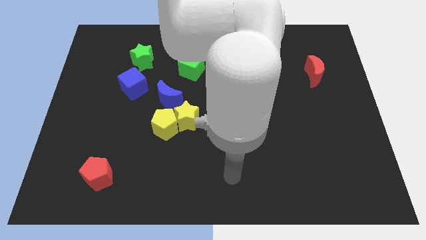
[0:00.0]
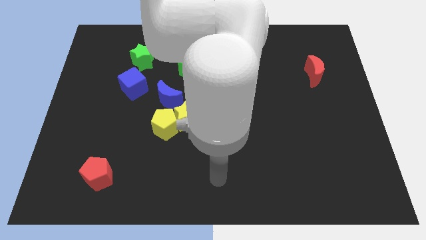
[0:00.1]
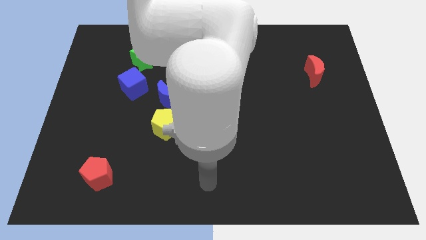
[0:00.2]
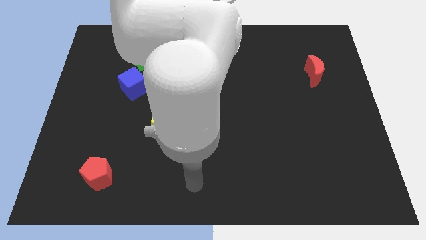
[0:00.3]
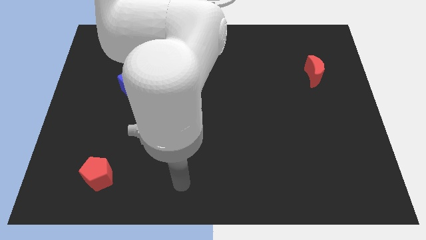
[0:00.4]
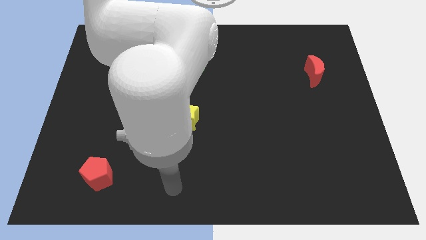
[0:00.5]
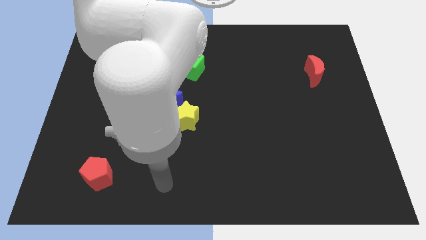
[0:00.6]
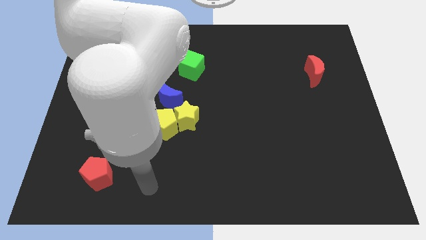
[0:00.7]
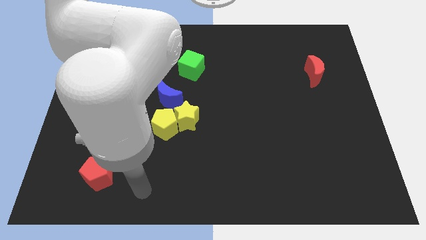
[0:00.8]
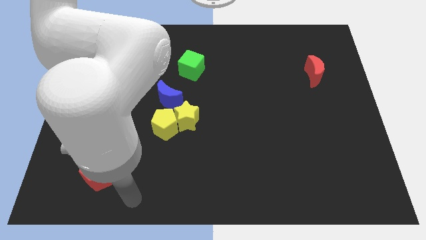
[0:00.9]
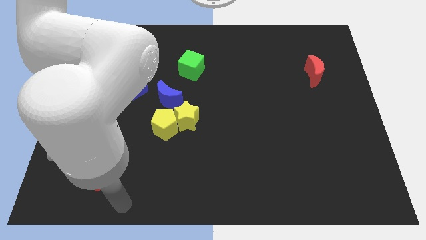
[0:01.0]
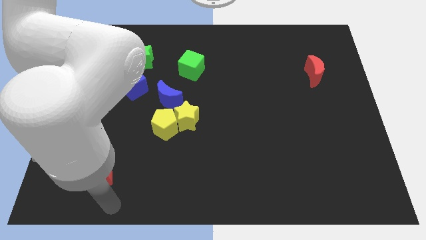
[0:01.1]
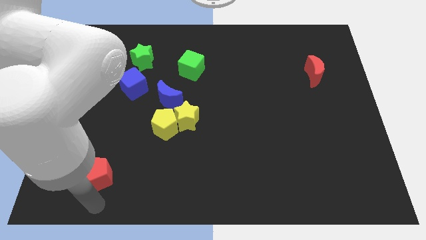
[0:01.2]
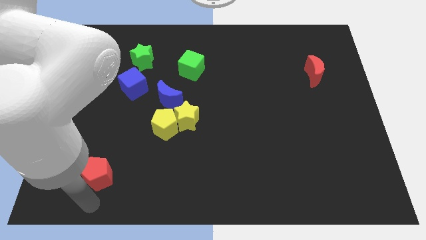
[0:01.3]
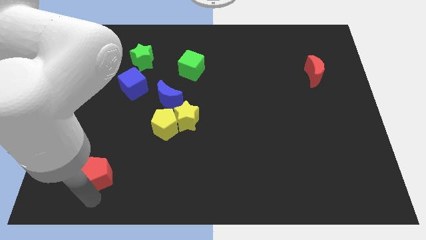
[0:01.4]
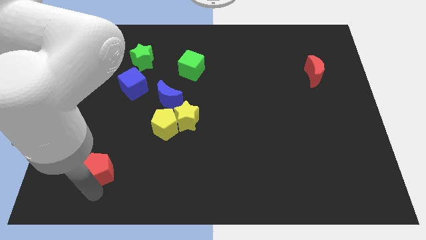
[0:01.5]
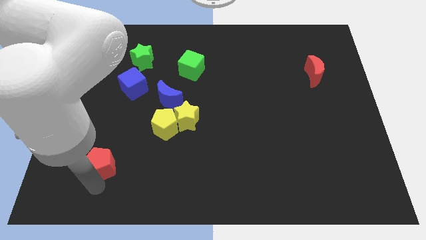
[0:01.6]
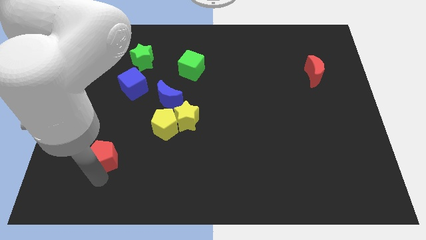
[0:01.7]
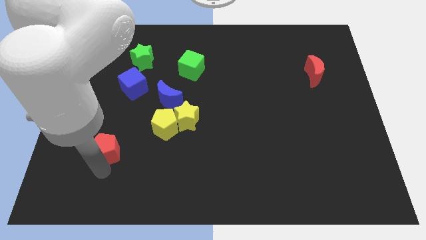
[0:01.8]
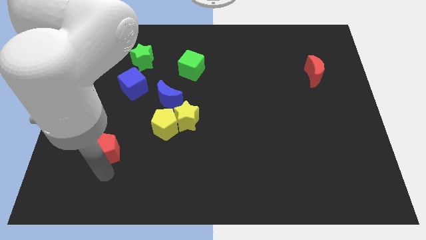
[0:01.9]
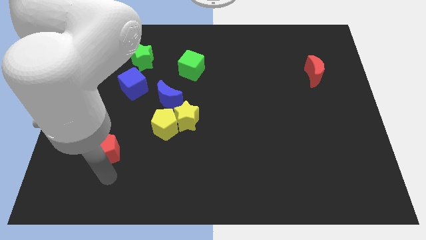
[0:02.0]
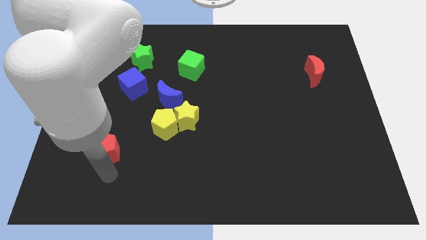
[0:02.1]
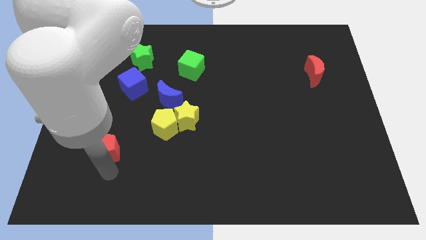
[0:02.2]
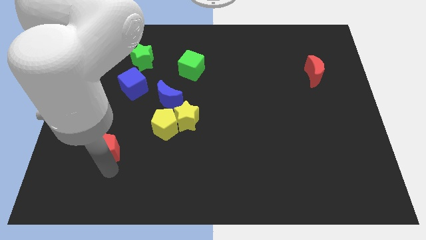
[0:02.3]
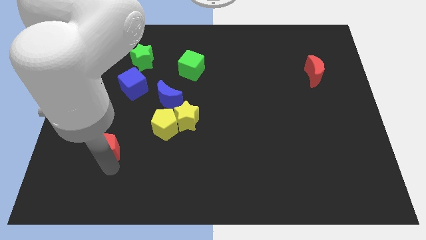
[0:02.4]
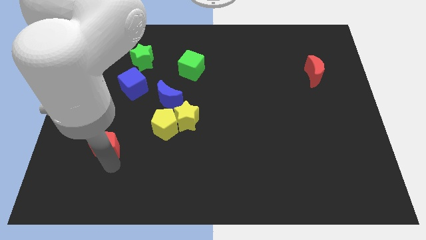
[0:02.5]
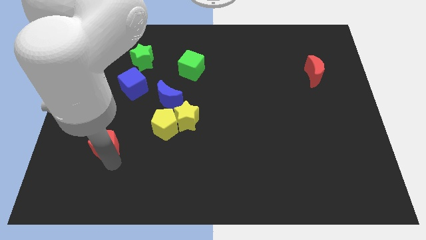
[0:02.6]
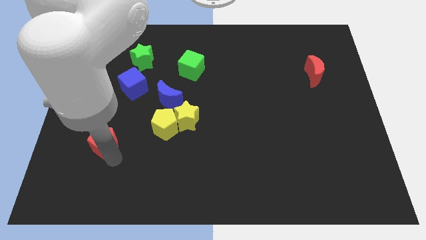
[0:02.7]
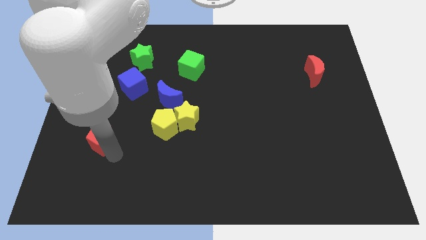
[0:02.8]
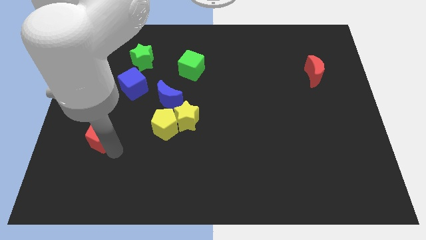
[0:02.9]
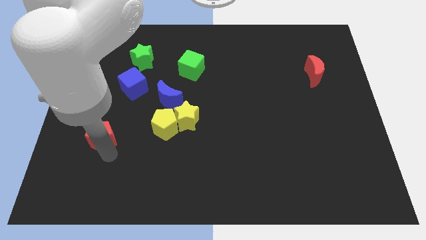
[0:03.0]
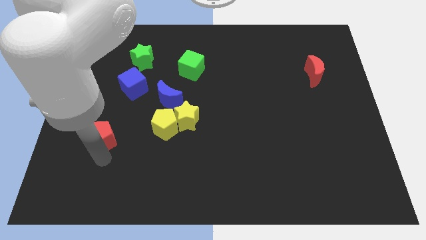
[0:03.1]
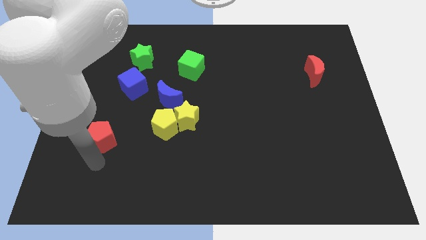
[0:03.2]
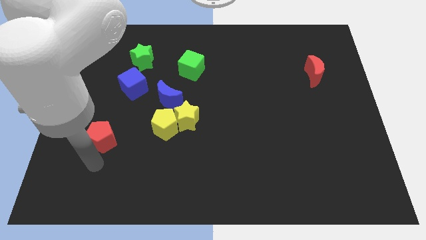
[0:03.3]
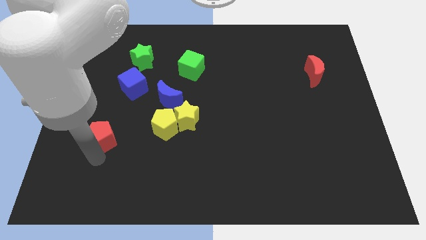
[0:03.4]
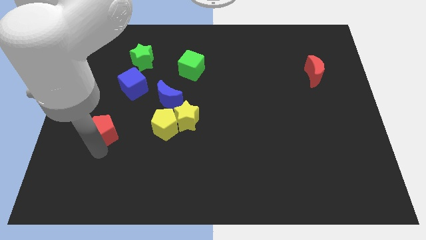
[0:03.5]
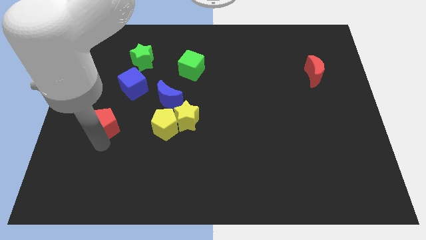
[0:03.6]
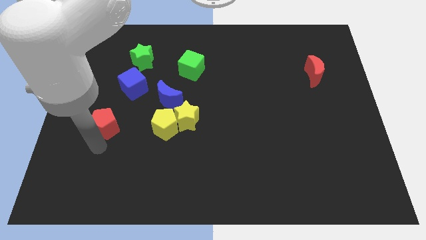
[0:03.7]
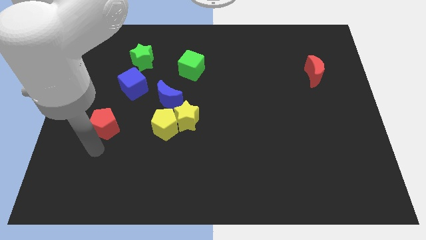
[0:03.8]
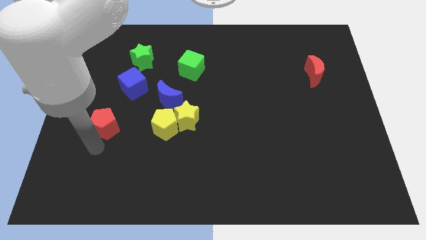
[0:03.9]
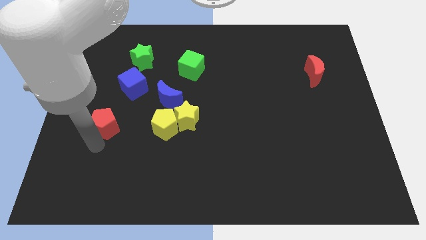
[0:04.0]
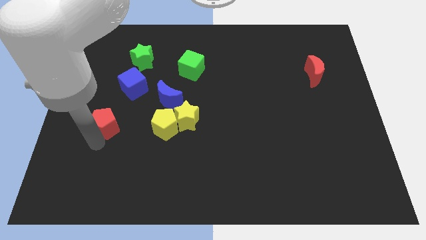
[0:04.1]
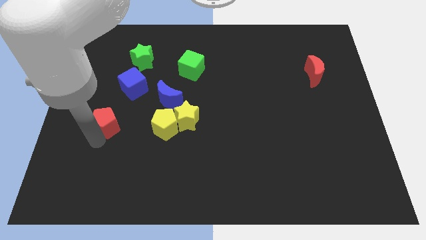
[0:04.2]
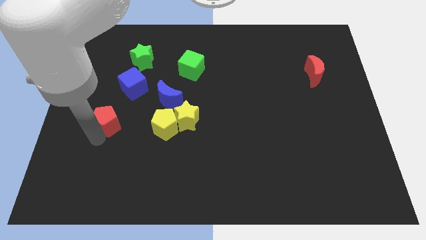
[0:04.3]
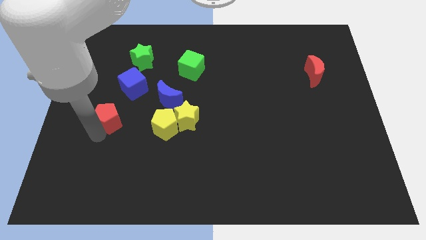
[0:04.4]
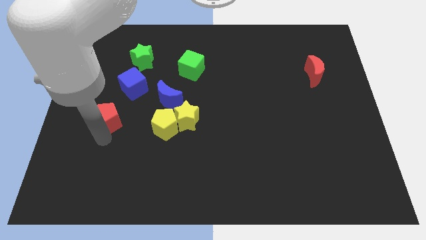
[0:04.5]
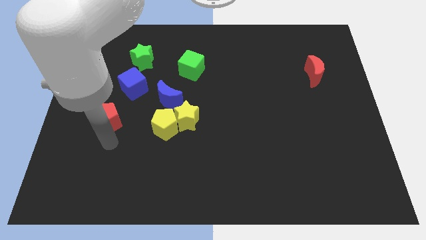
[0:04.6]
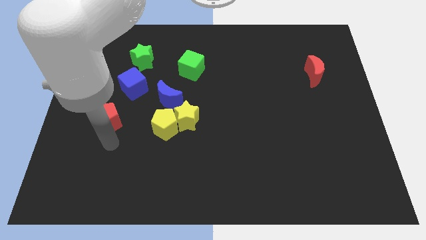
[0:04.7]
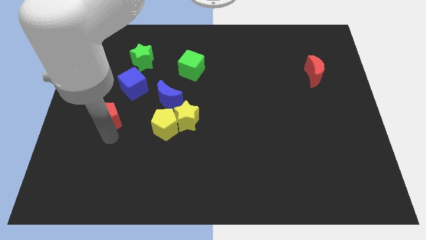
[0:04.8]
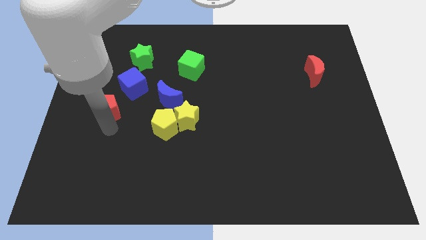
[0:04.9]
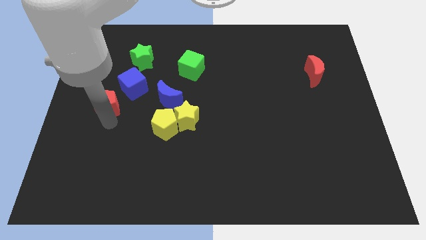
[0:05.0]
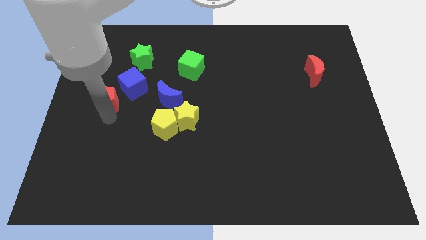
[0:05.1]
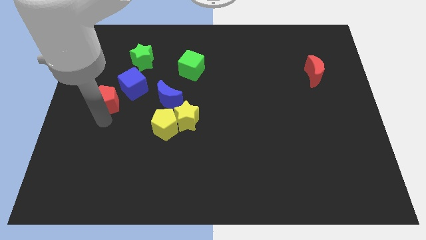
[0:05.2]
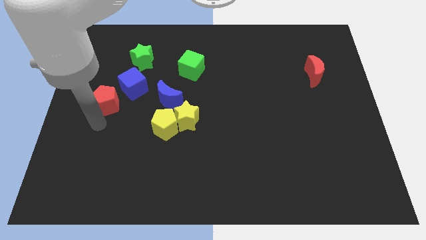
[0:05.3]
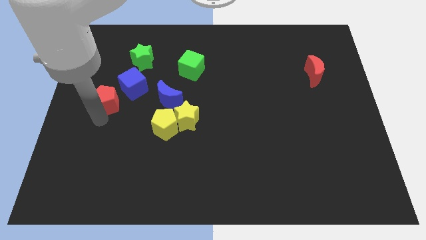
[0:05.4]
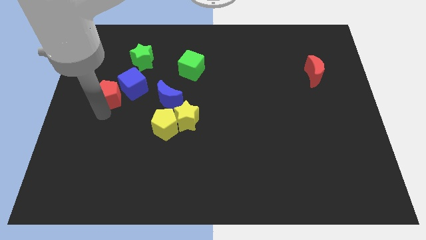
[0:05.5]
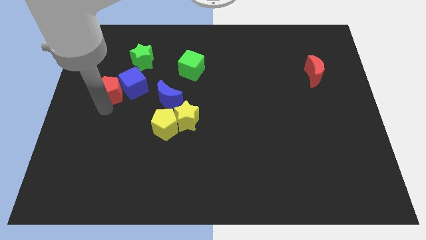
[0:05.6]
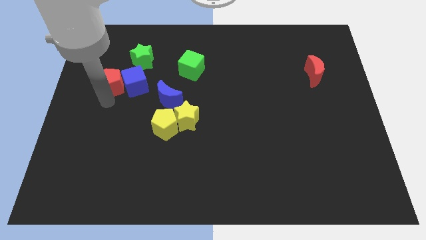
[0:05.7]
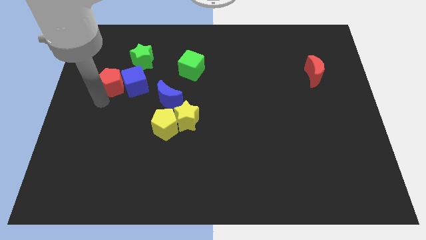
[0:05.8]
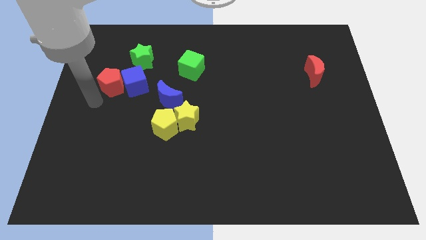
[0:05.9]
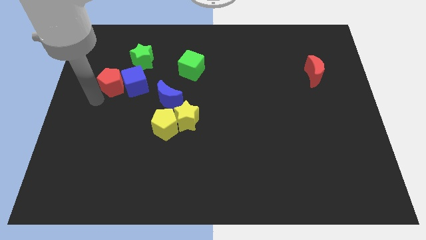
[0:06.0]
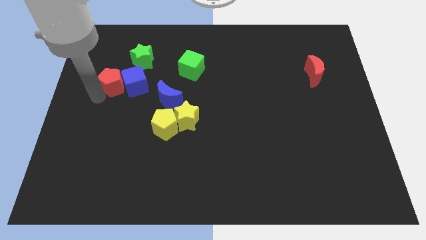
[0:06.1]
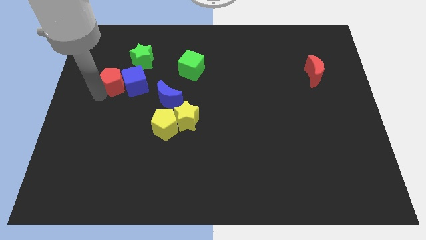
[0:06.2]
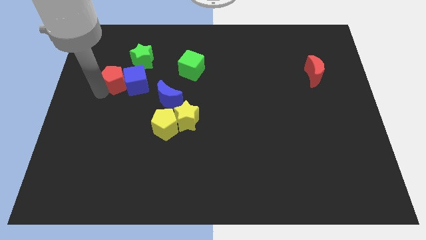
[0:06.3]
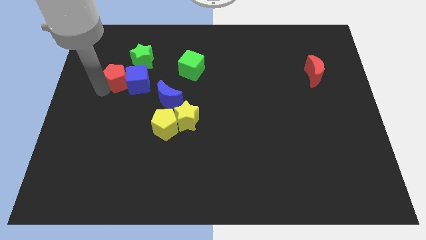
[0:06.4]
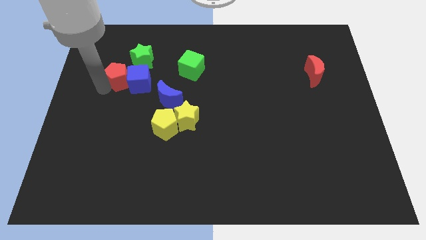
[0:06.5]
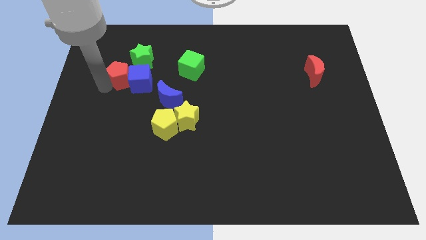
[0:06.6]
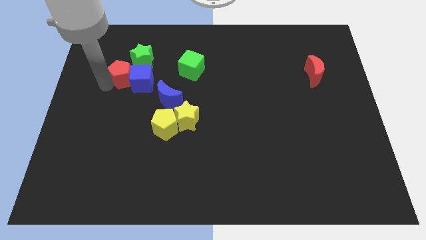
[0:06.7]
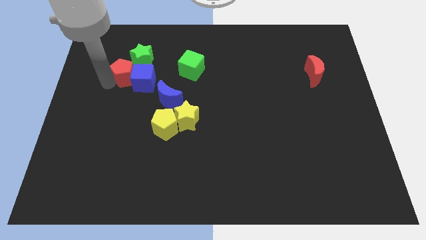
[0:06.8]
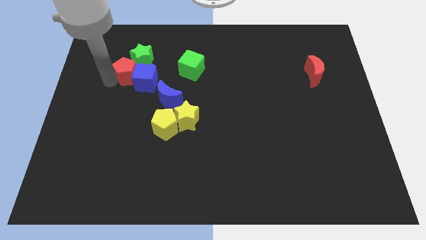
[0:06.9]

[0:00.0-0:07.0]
put the red pentagon to the green star
